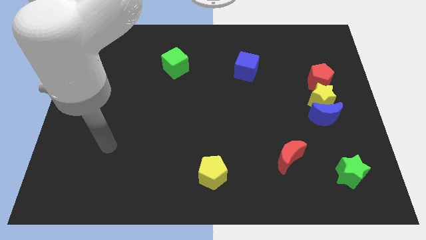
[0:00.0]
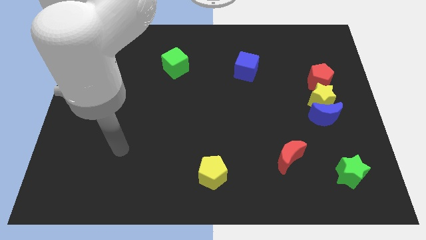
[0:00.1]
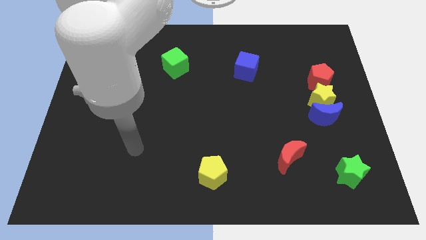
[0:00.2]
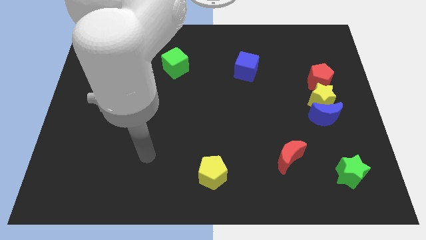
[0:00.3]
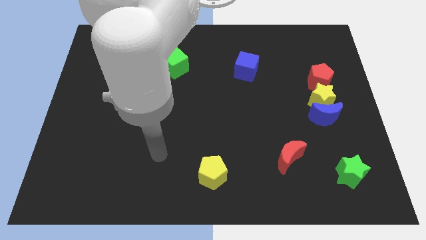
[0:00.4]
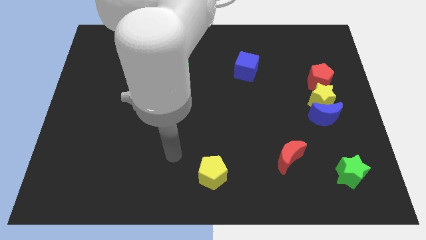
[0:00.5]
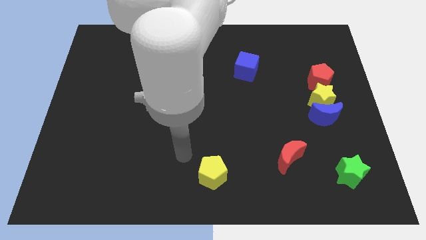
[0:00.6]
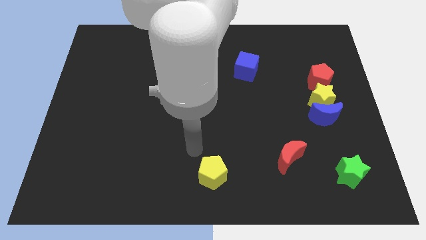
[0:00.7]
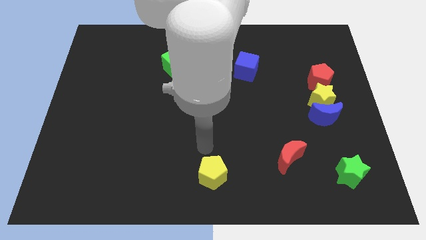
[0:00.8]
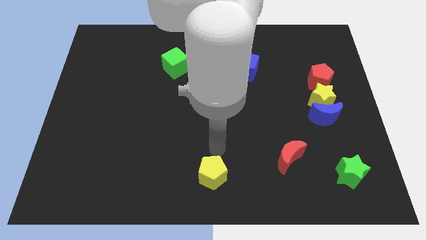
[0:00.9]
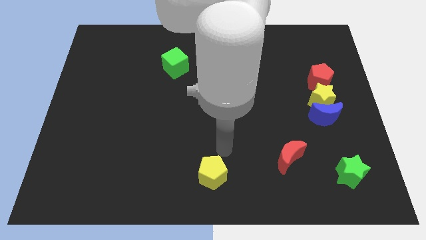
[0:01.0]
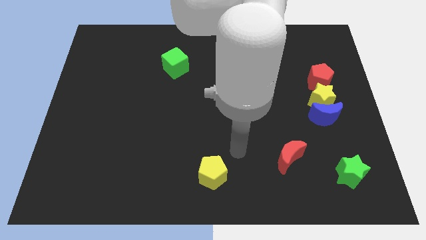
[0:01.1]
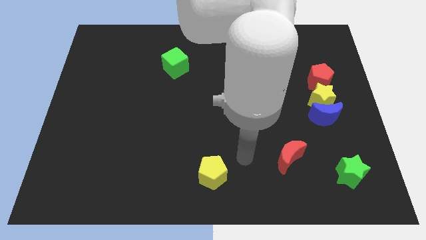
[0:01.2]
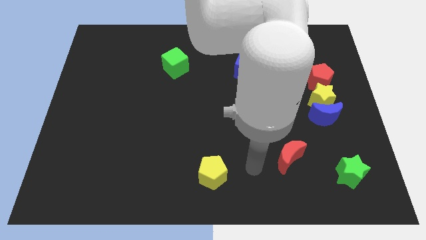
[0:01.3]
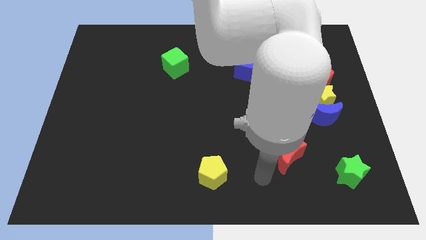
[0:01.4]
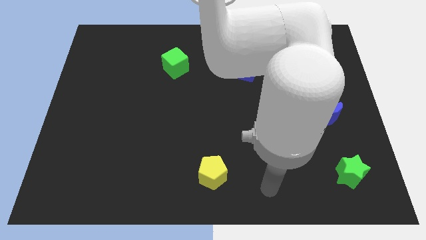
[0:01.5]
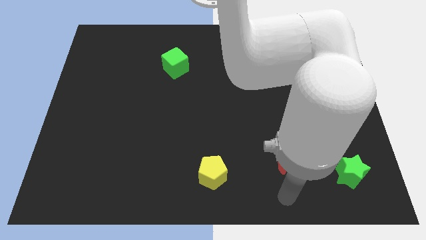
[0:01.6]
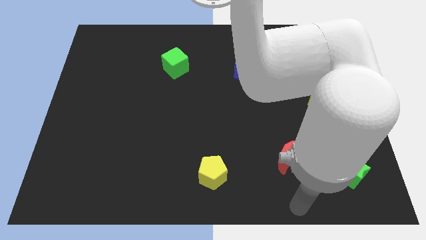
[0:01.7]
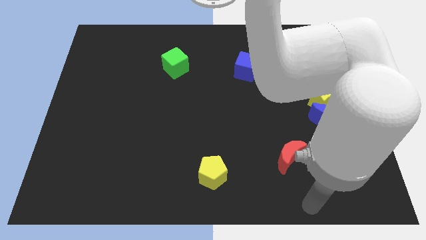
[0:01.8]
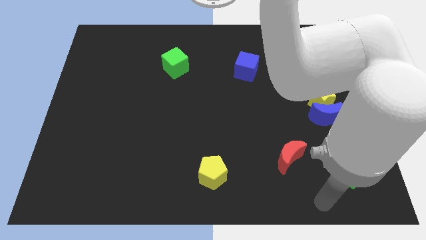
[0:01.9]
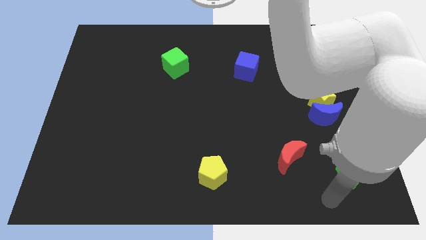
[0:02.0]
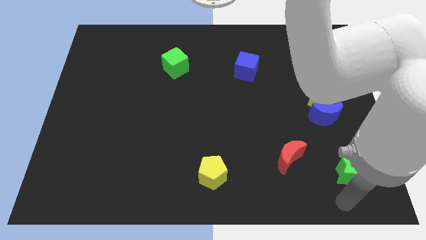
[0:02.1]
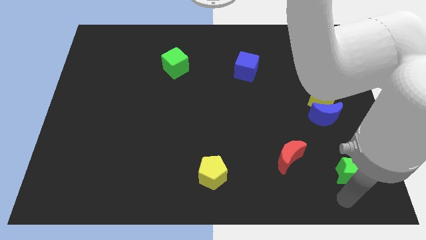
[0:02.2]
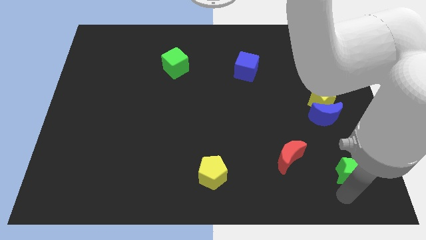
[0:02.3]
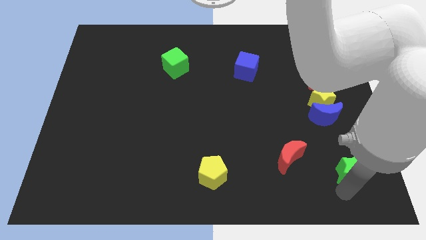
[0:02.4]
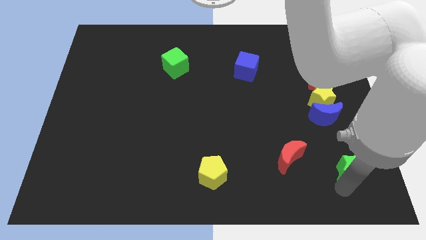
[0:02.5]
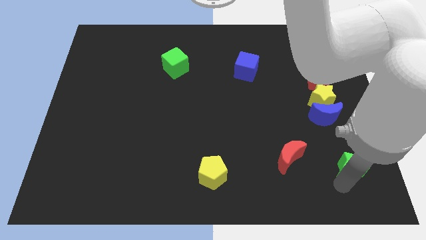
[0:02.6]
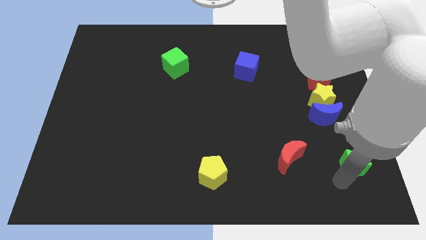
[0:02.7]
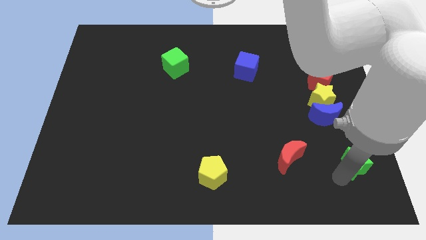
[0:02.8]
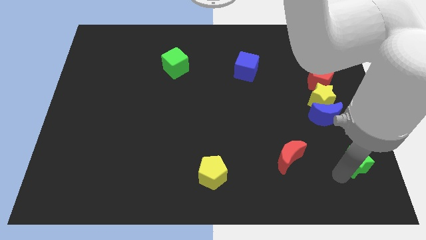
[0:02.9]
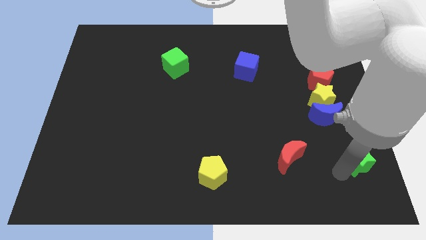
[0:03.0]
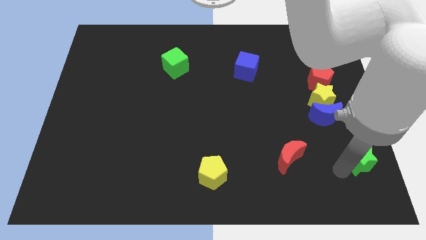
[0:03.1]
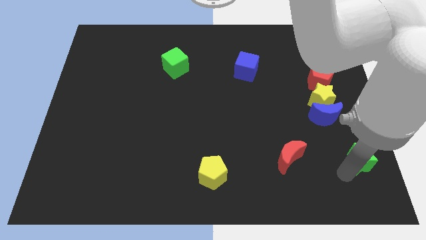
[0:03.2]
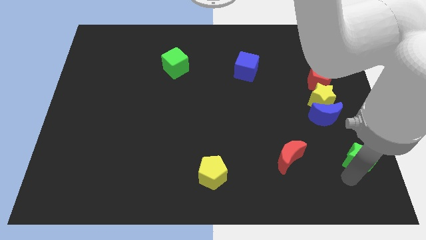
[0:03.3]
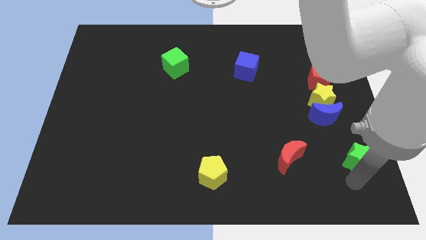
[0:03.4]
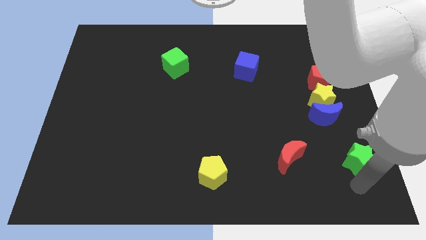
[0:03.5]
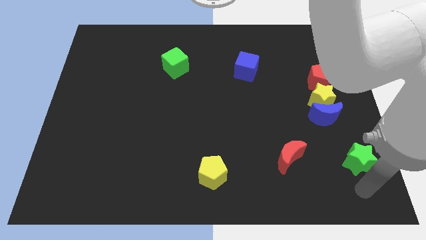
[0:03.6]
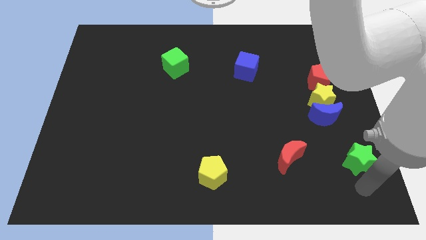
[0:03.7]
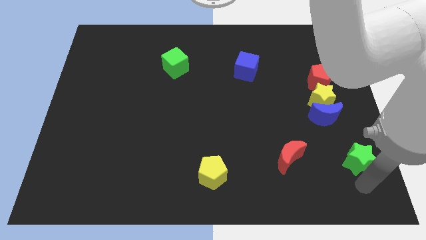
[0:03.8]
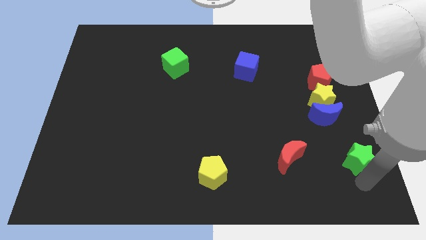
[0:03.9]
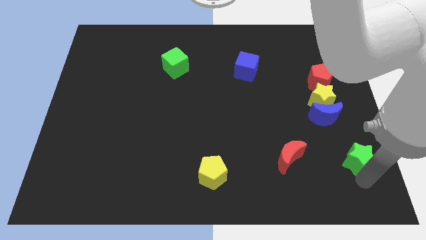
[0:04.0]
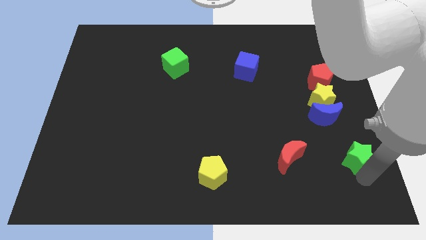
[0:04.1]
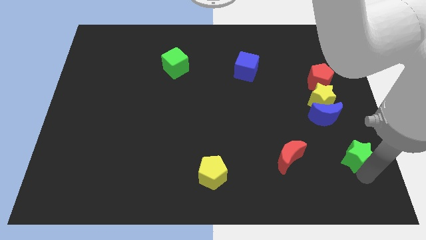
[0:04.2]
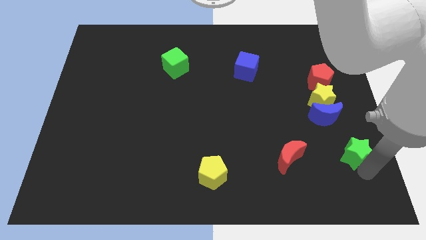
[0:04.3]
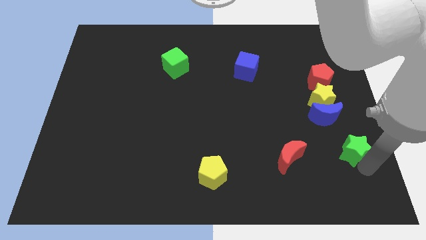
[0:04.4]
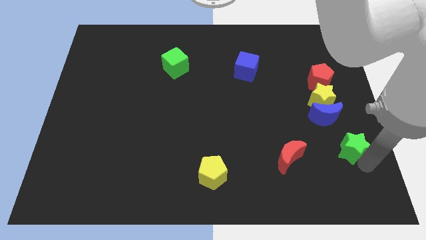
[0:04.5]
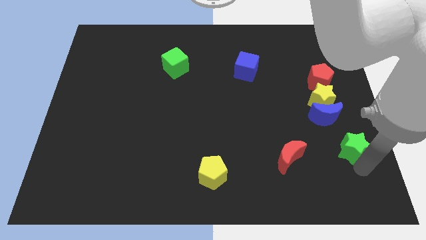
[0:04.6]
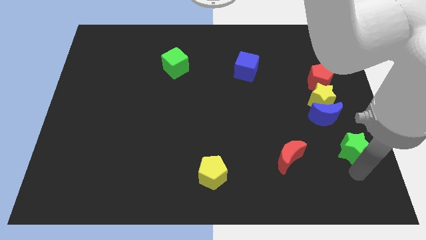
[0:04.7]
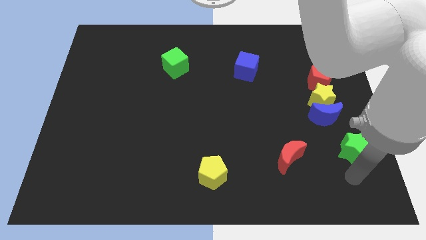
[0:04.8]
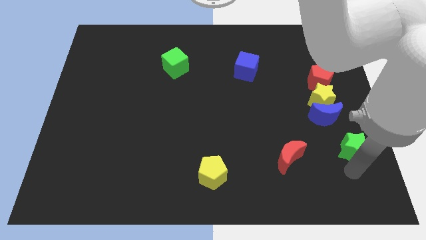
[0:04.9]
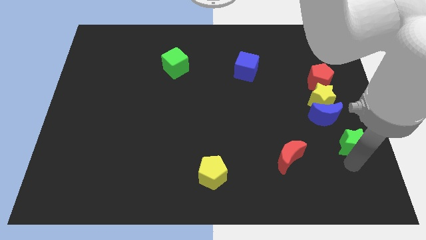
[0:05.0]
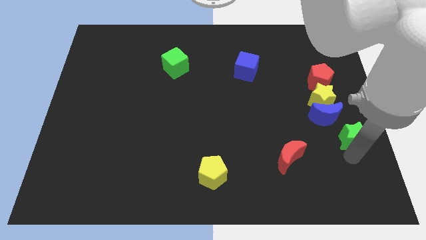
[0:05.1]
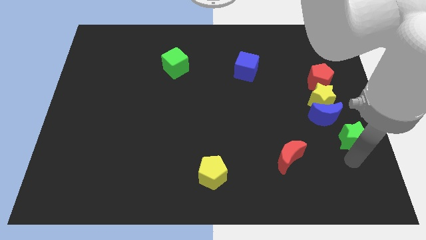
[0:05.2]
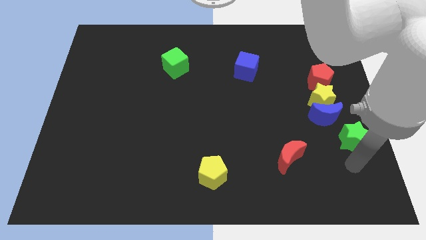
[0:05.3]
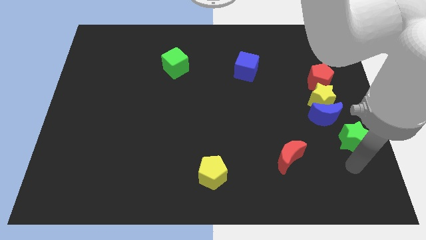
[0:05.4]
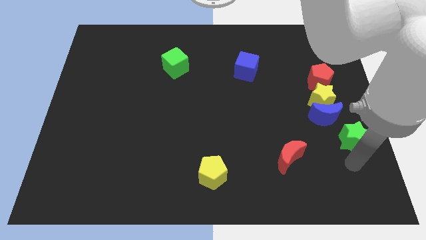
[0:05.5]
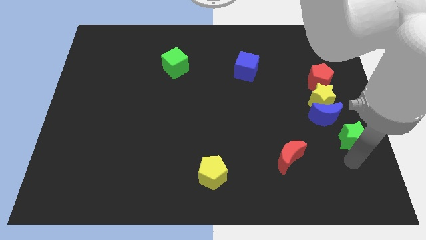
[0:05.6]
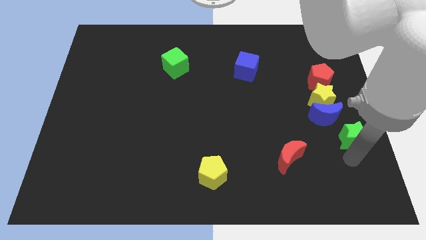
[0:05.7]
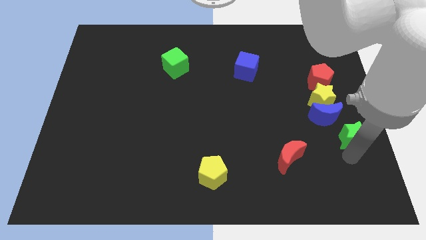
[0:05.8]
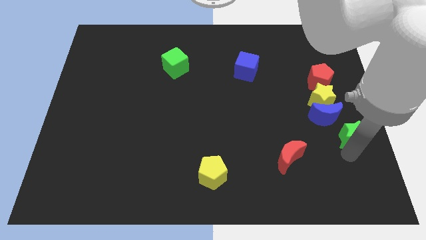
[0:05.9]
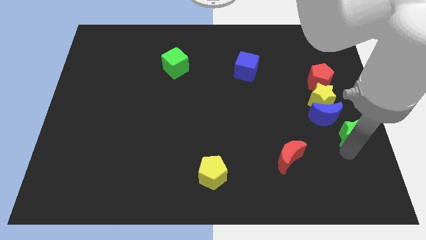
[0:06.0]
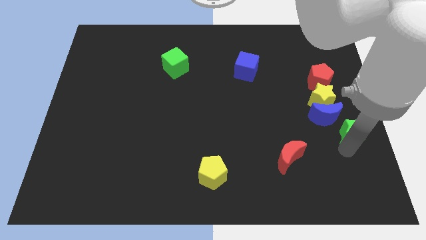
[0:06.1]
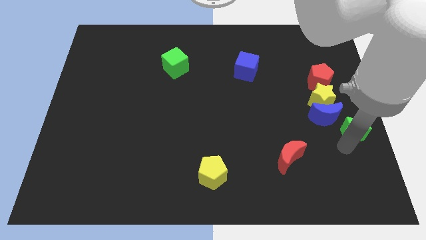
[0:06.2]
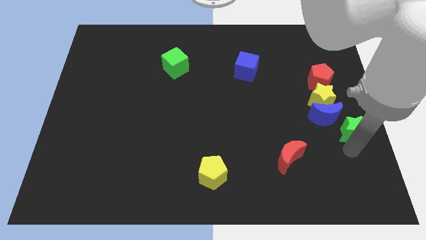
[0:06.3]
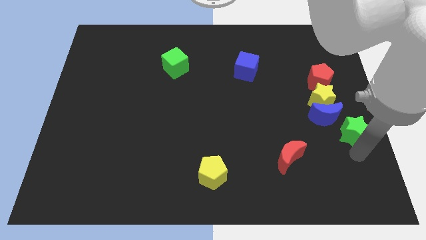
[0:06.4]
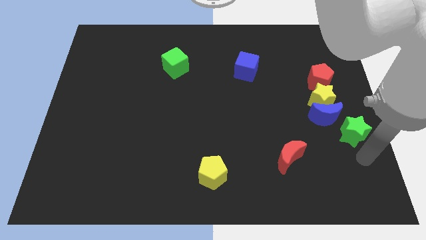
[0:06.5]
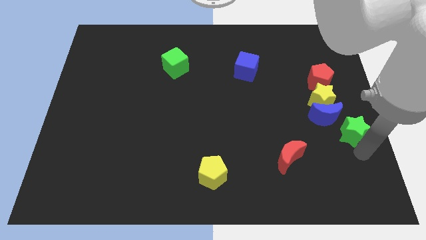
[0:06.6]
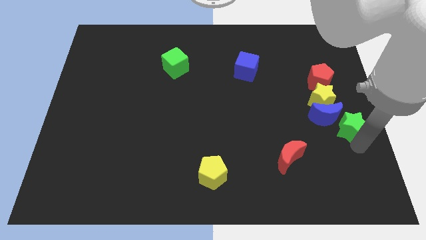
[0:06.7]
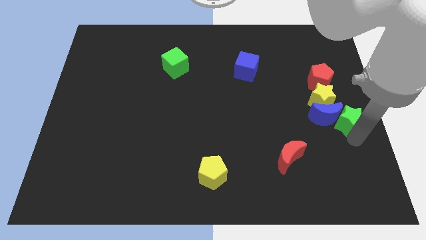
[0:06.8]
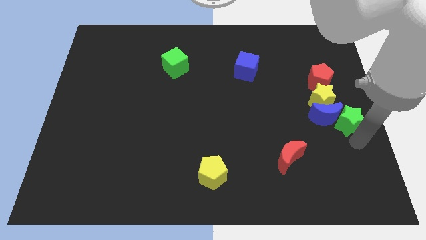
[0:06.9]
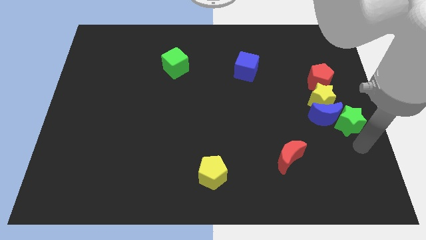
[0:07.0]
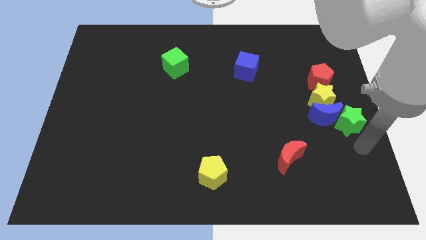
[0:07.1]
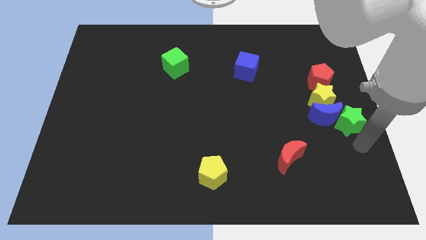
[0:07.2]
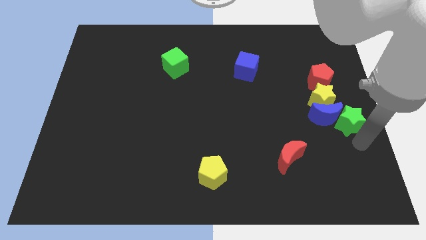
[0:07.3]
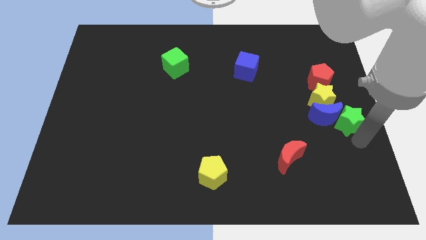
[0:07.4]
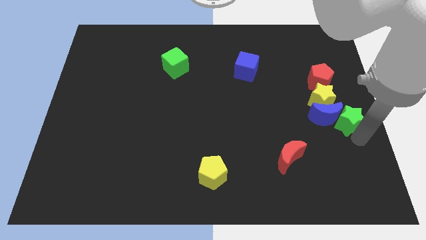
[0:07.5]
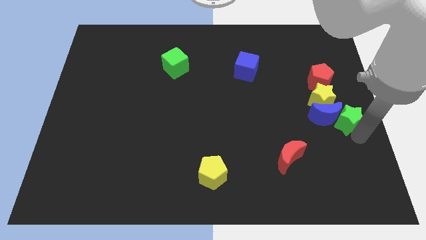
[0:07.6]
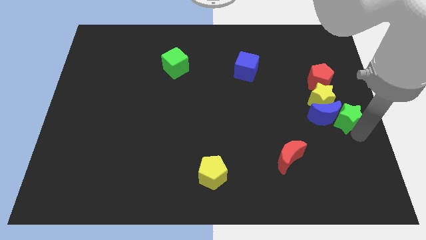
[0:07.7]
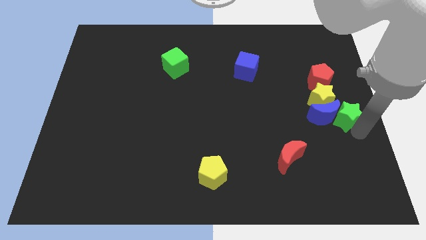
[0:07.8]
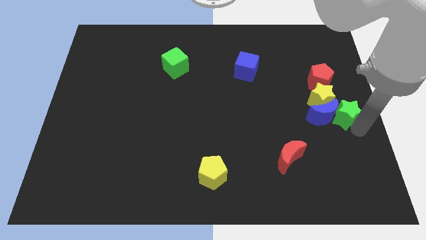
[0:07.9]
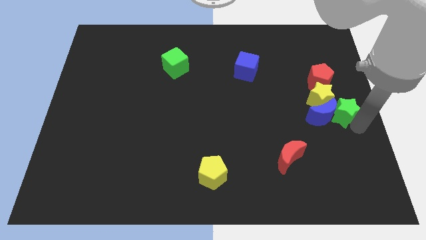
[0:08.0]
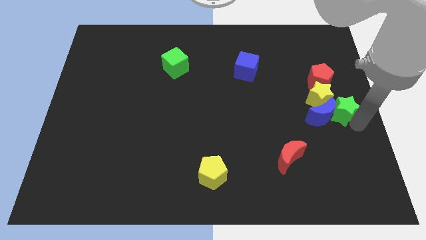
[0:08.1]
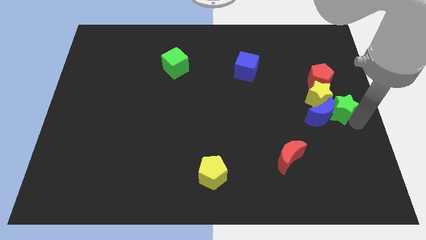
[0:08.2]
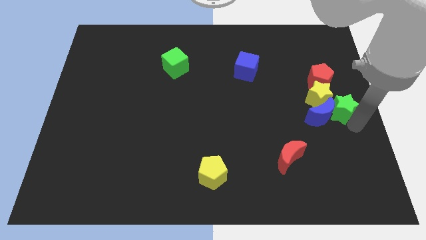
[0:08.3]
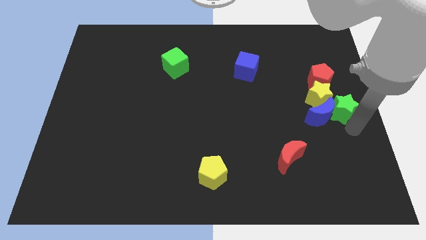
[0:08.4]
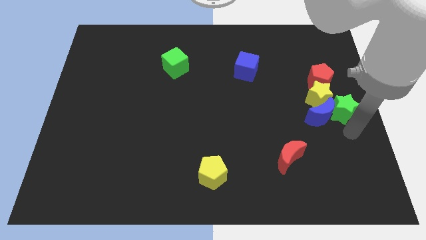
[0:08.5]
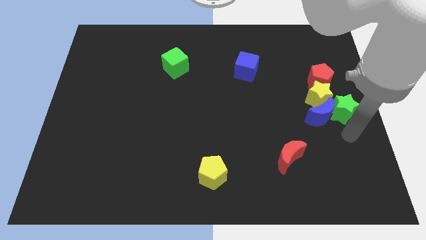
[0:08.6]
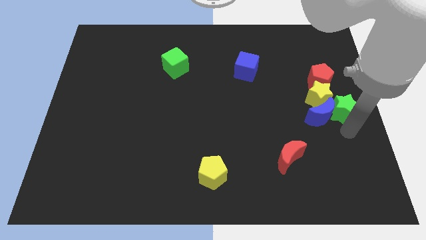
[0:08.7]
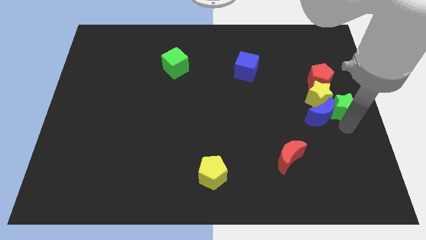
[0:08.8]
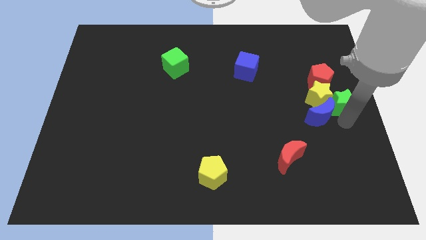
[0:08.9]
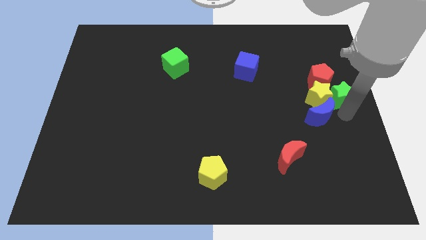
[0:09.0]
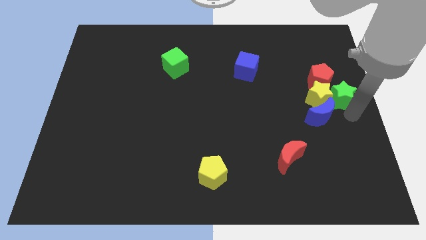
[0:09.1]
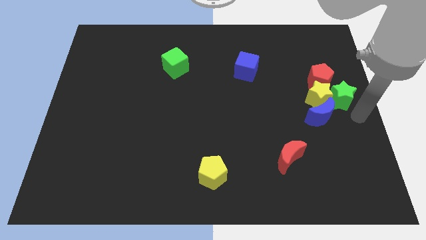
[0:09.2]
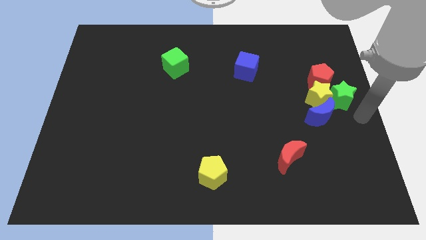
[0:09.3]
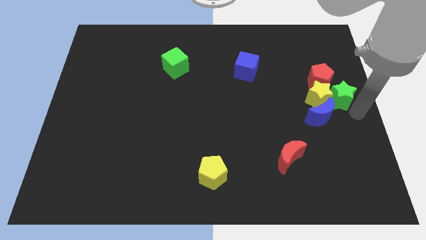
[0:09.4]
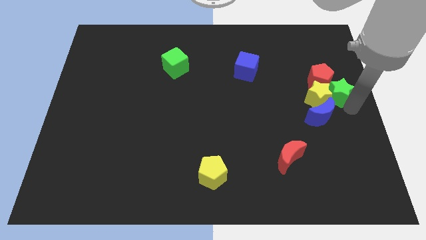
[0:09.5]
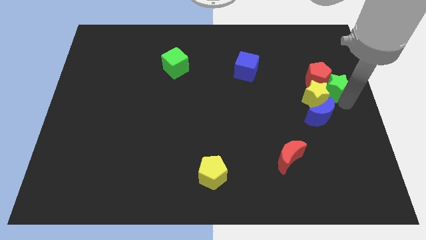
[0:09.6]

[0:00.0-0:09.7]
move the green star to the red pentagon
